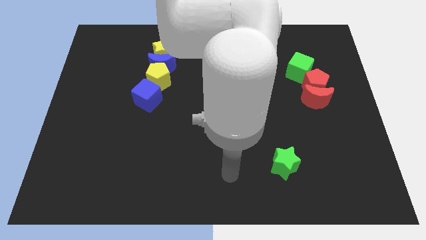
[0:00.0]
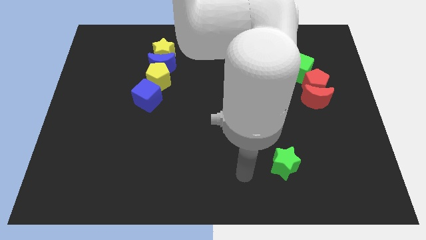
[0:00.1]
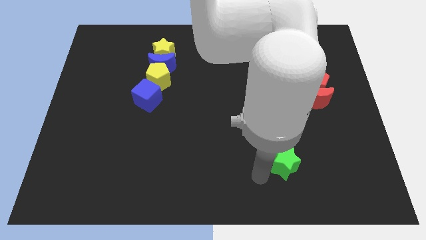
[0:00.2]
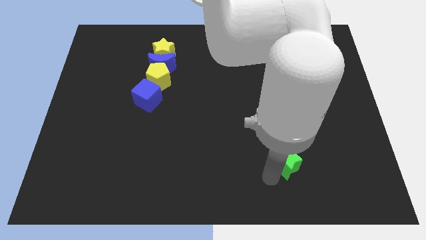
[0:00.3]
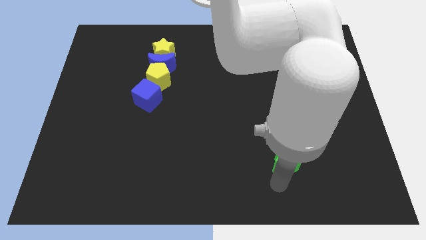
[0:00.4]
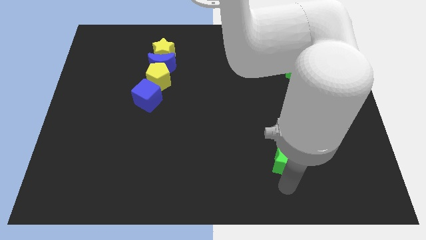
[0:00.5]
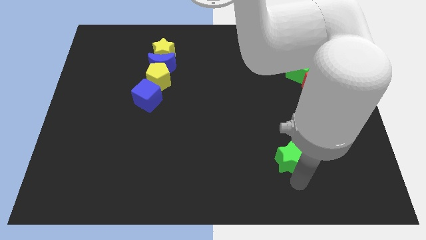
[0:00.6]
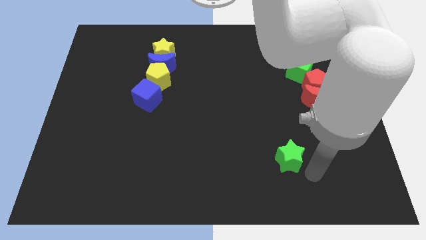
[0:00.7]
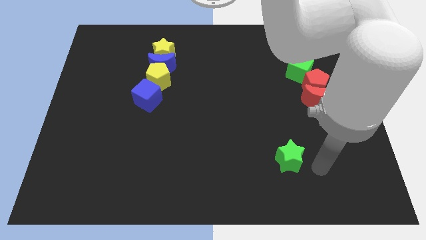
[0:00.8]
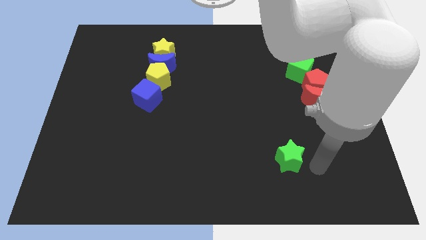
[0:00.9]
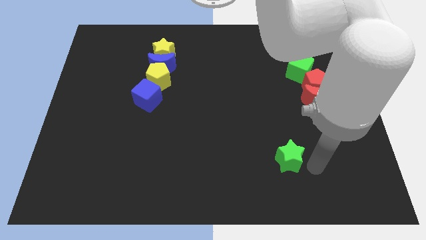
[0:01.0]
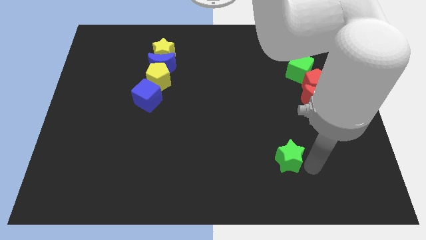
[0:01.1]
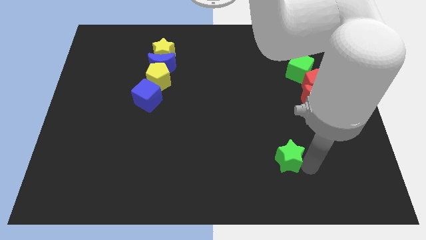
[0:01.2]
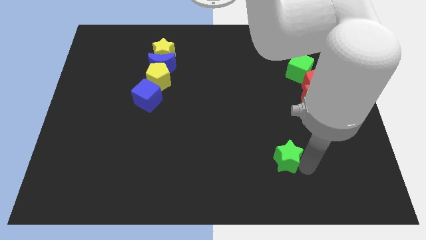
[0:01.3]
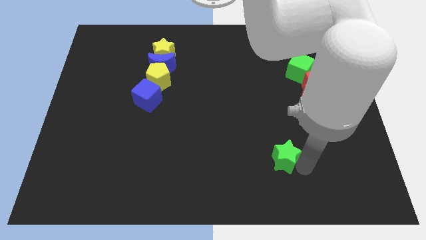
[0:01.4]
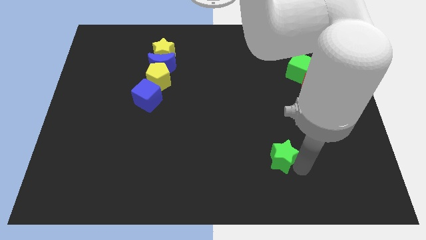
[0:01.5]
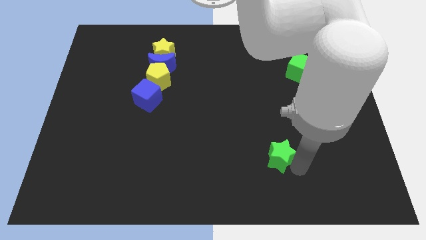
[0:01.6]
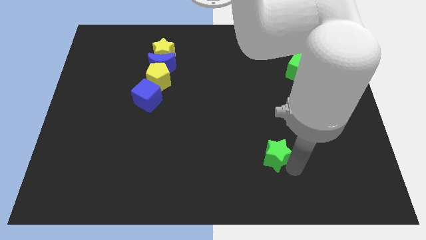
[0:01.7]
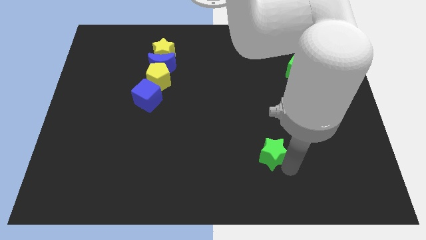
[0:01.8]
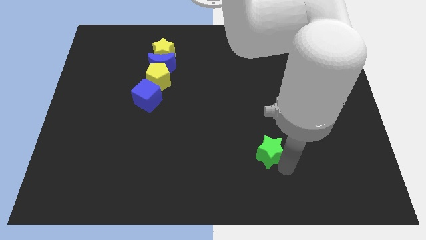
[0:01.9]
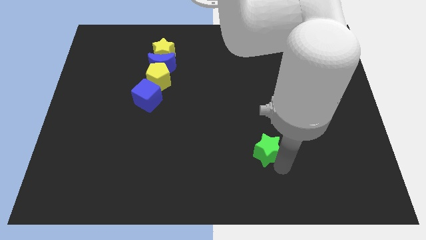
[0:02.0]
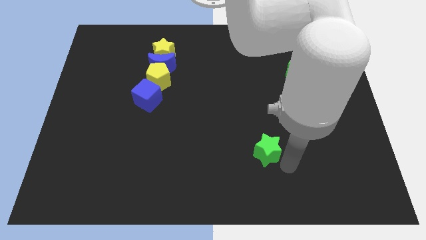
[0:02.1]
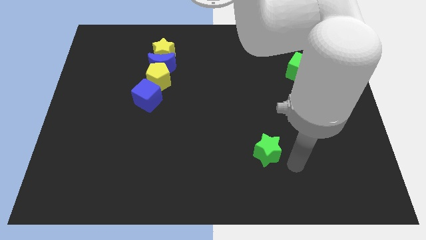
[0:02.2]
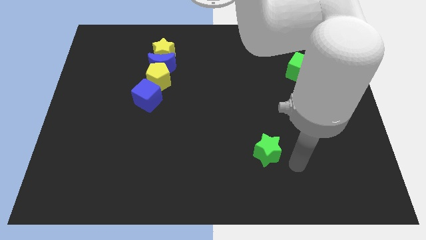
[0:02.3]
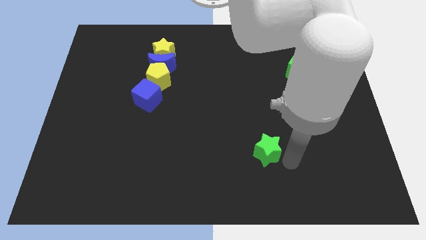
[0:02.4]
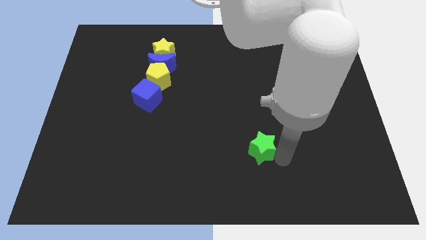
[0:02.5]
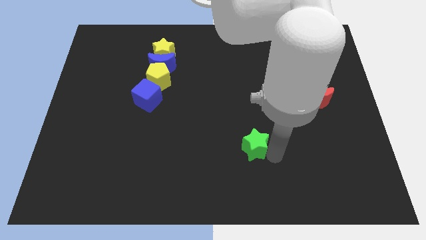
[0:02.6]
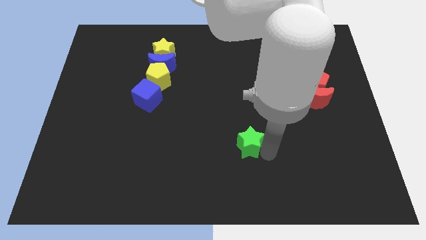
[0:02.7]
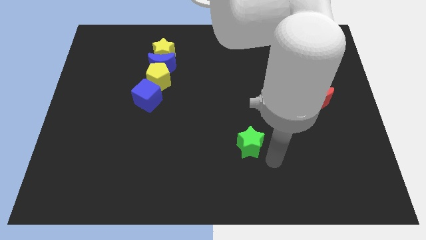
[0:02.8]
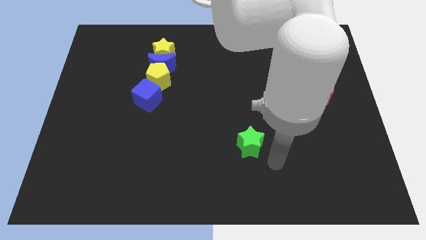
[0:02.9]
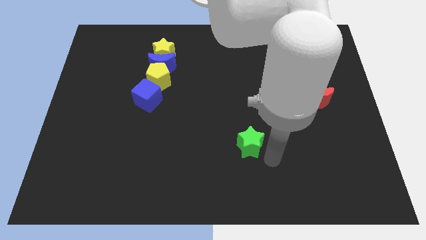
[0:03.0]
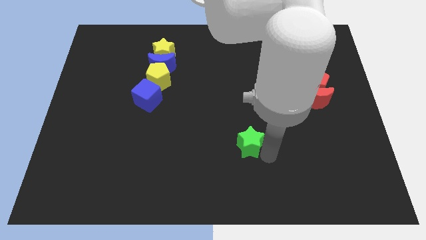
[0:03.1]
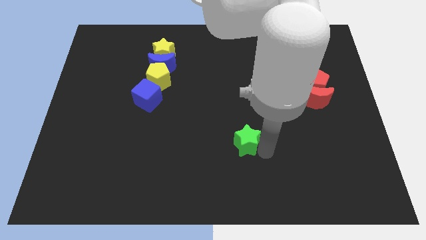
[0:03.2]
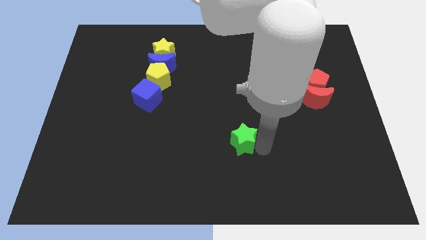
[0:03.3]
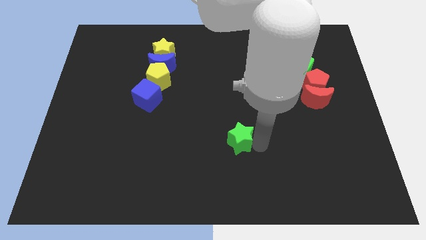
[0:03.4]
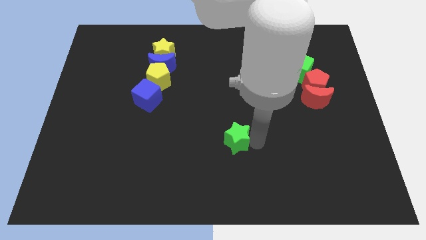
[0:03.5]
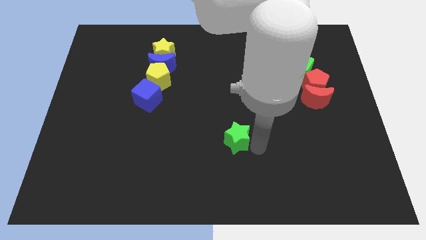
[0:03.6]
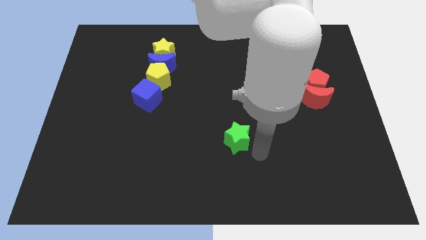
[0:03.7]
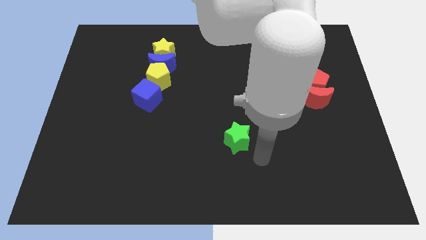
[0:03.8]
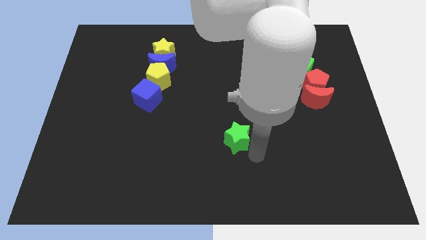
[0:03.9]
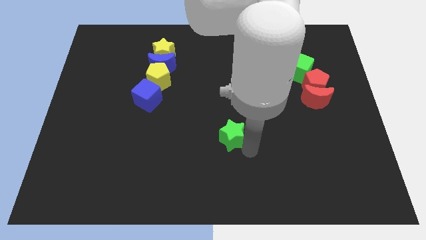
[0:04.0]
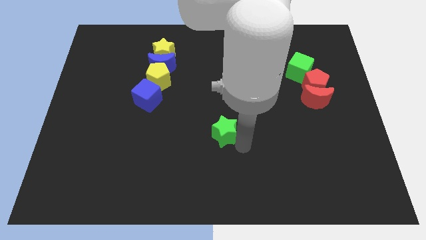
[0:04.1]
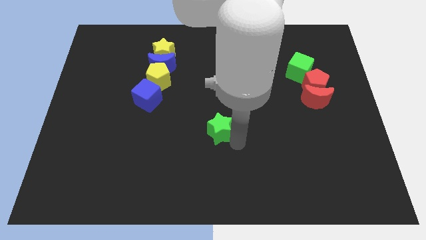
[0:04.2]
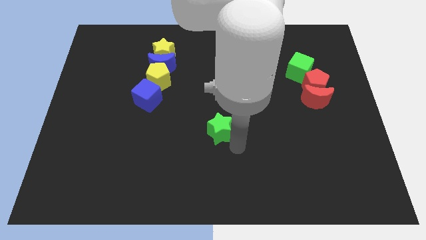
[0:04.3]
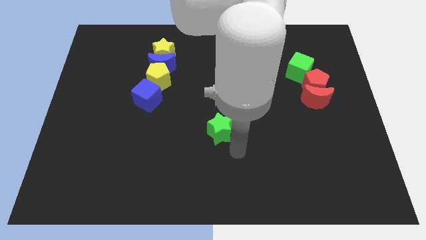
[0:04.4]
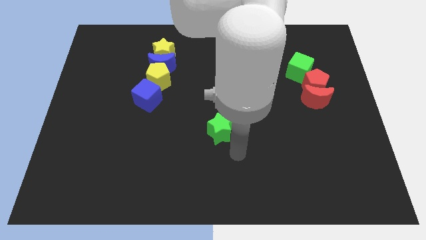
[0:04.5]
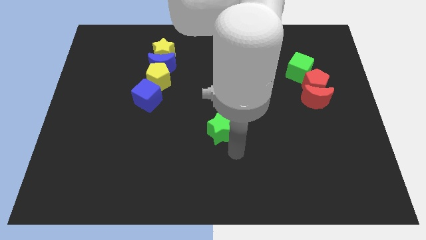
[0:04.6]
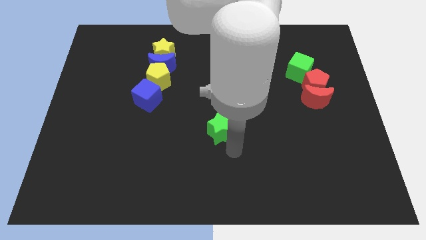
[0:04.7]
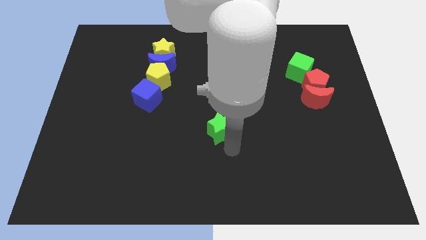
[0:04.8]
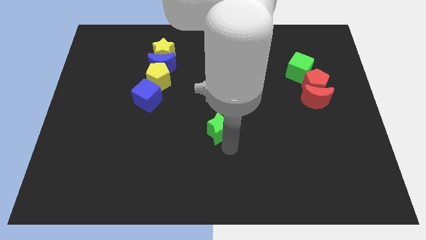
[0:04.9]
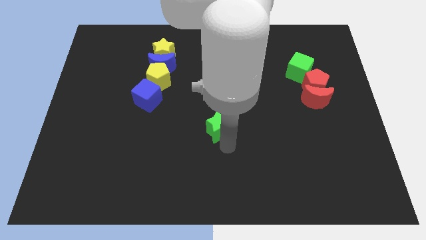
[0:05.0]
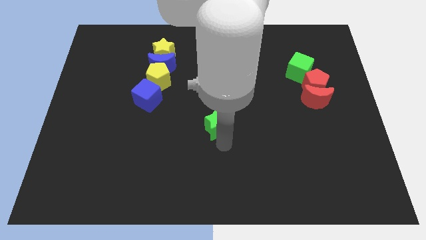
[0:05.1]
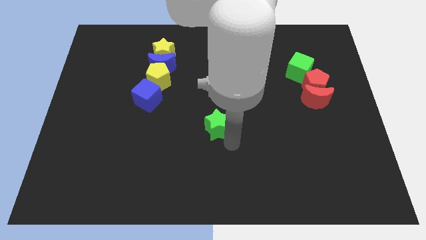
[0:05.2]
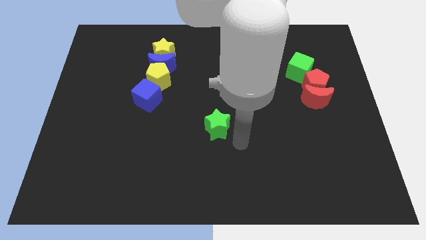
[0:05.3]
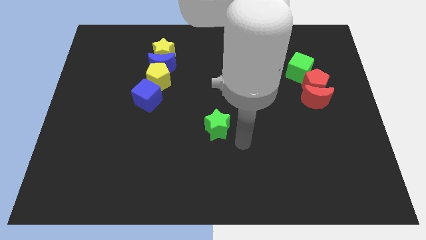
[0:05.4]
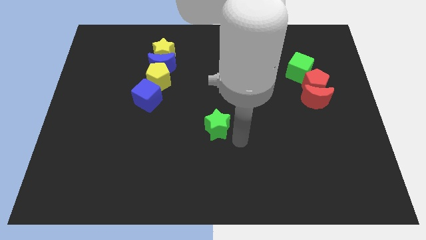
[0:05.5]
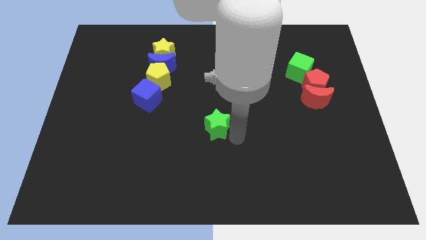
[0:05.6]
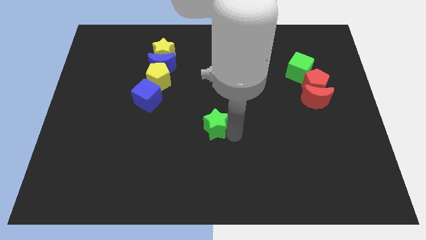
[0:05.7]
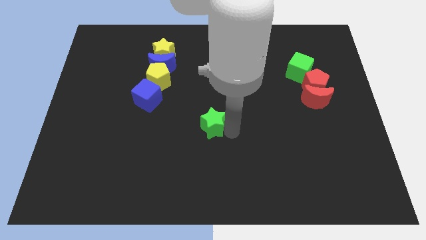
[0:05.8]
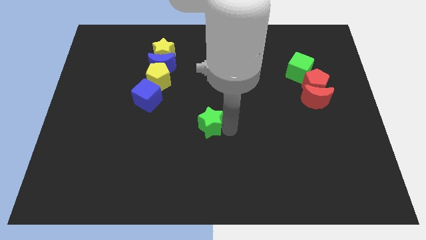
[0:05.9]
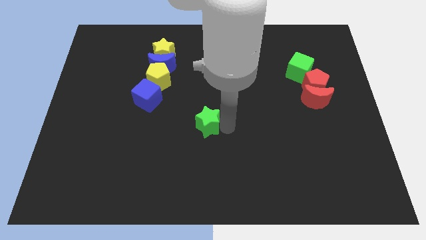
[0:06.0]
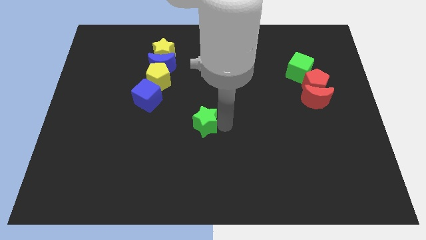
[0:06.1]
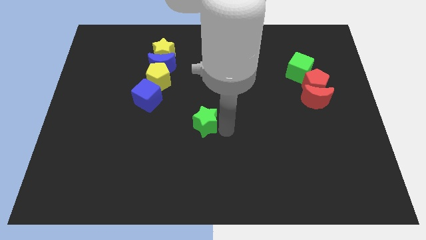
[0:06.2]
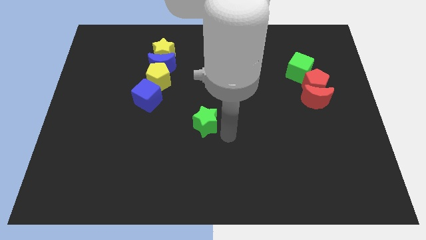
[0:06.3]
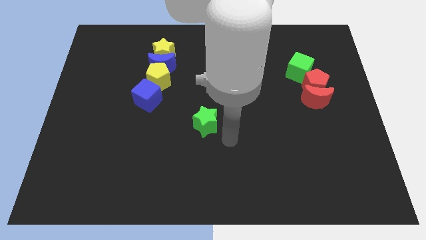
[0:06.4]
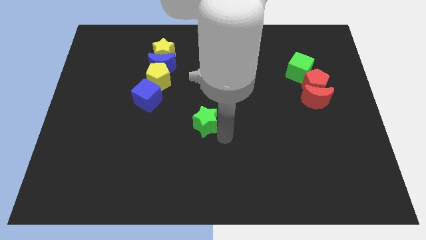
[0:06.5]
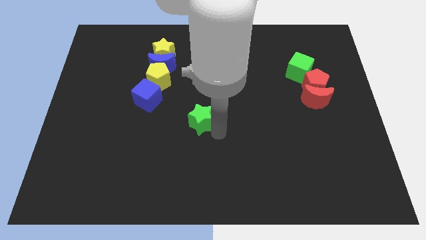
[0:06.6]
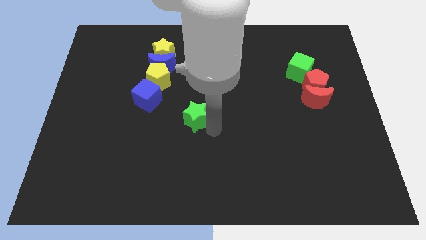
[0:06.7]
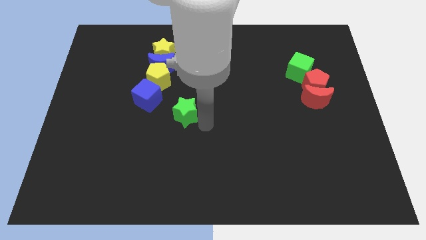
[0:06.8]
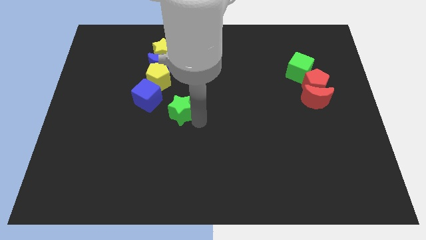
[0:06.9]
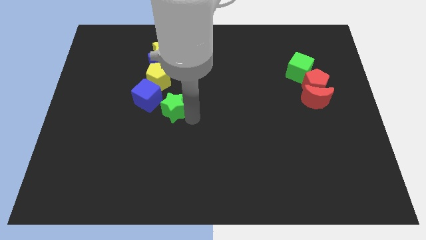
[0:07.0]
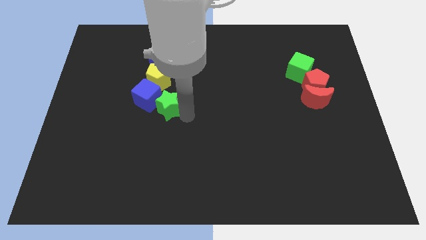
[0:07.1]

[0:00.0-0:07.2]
put the green star close to the blue cube
